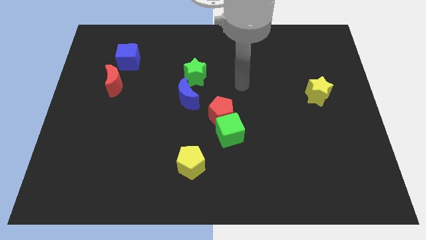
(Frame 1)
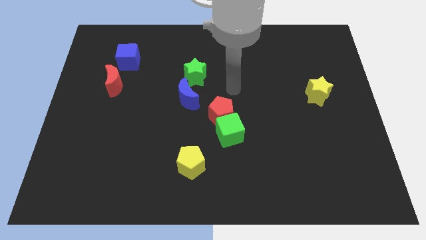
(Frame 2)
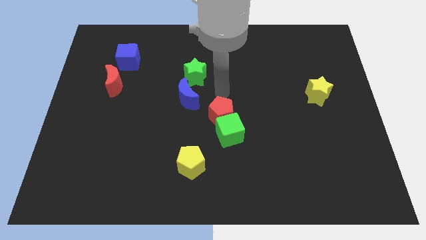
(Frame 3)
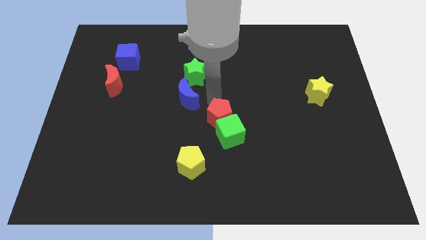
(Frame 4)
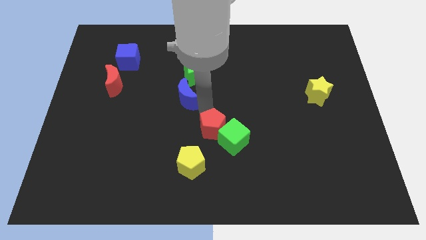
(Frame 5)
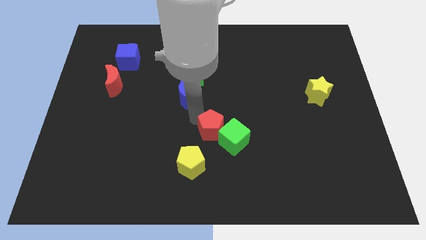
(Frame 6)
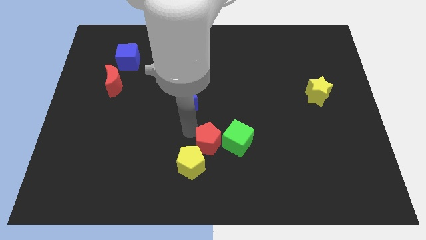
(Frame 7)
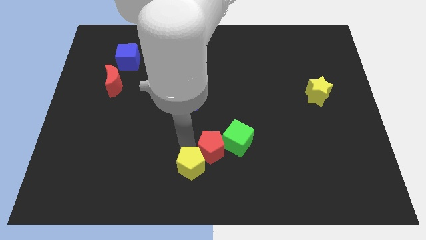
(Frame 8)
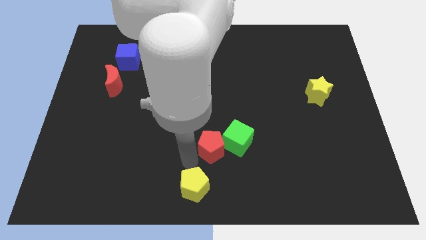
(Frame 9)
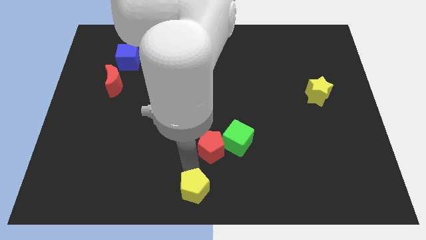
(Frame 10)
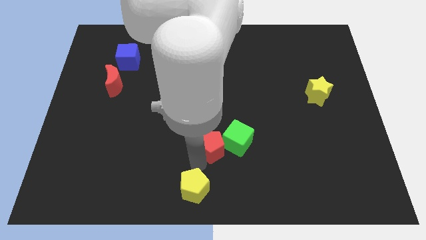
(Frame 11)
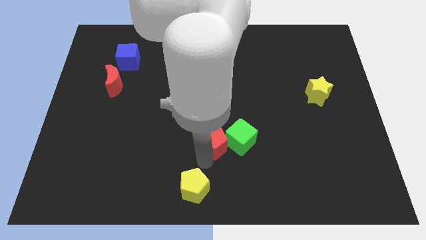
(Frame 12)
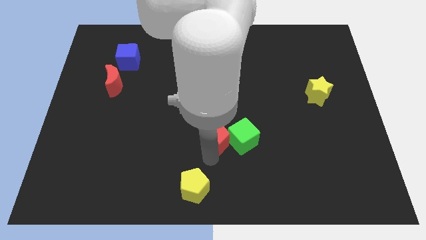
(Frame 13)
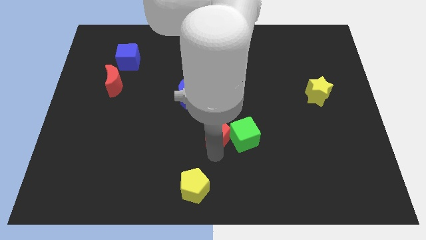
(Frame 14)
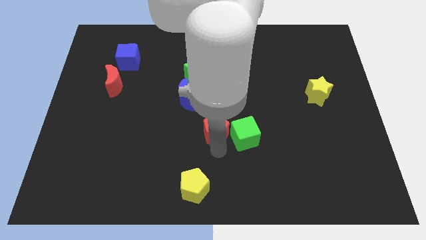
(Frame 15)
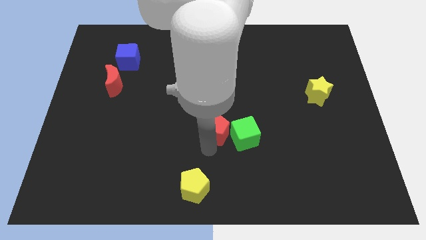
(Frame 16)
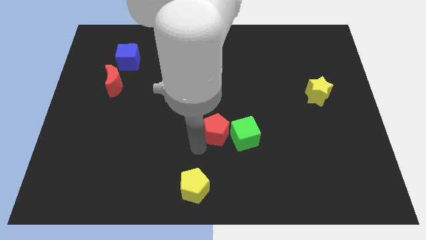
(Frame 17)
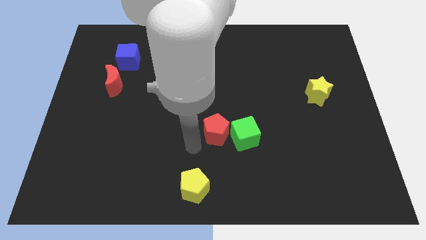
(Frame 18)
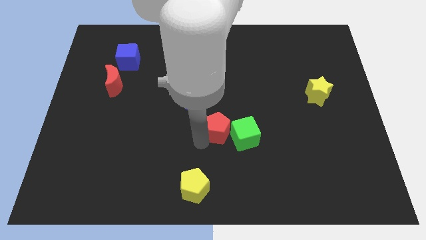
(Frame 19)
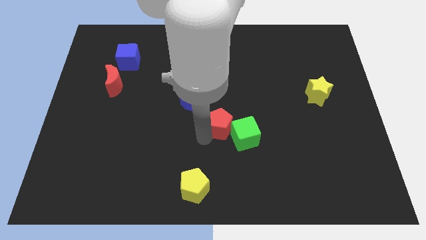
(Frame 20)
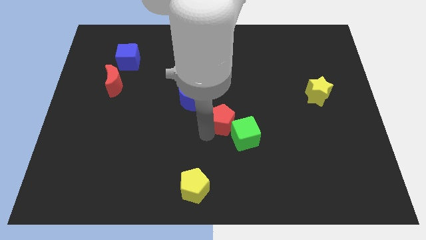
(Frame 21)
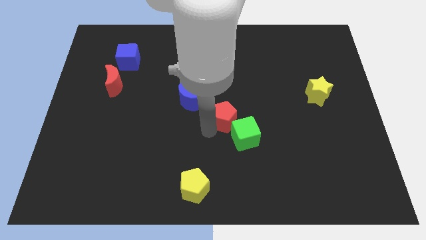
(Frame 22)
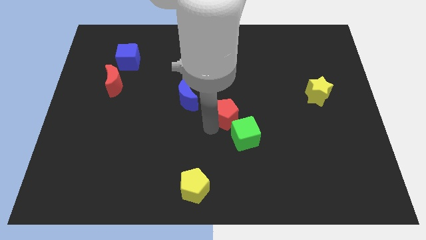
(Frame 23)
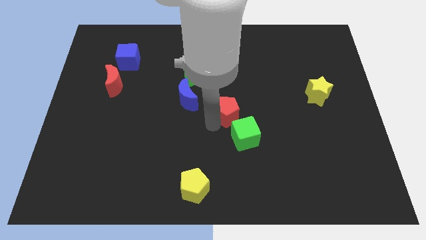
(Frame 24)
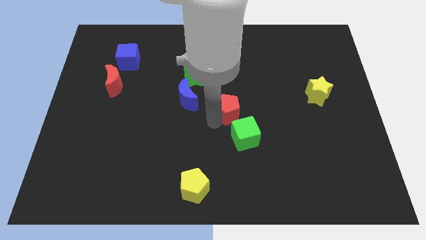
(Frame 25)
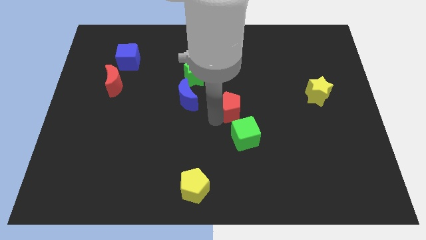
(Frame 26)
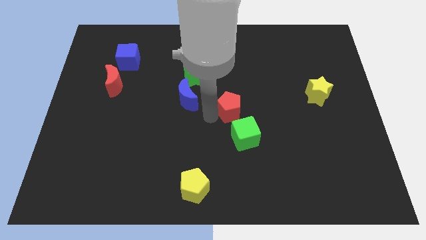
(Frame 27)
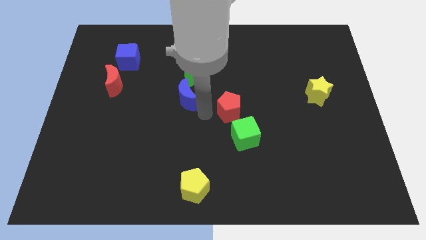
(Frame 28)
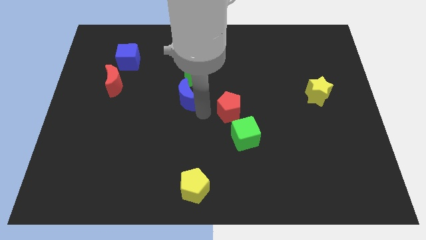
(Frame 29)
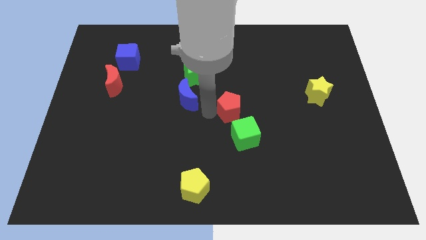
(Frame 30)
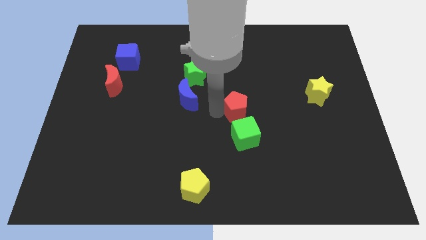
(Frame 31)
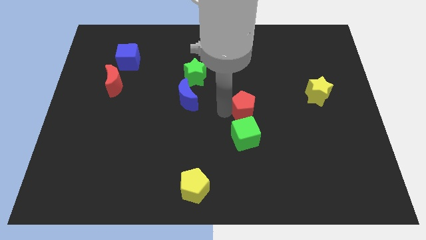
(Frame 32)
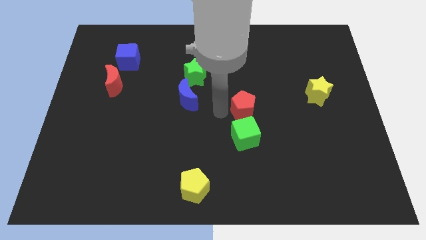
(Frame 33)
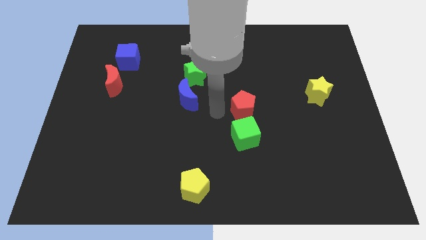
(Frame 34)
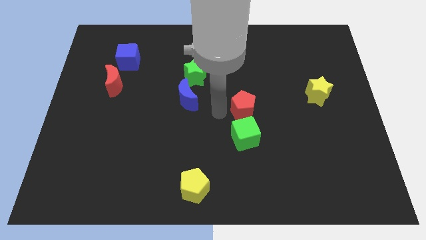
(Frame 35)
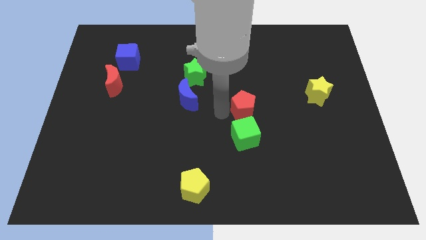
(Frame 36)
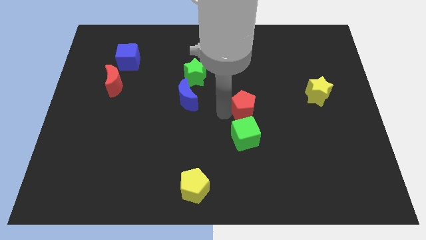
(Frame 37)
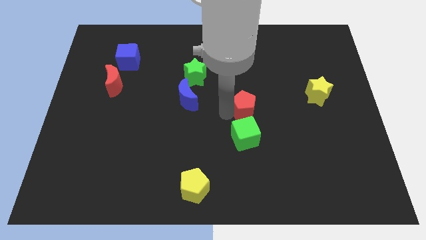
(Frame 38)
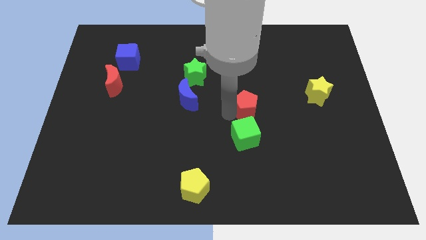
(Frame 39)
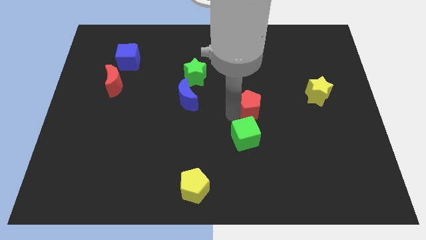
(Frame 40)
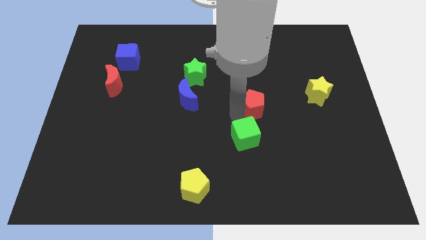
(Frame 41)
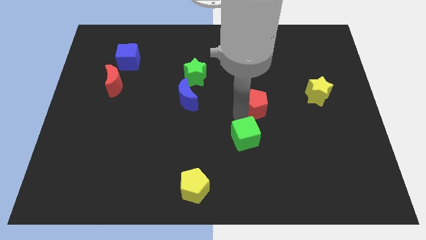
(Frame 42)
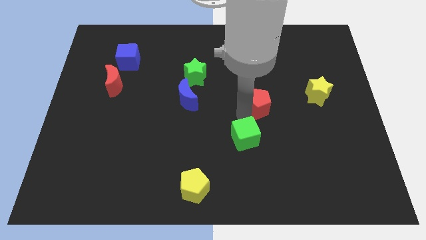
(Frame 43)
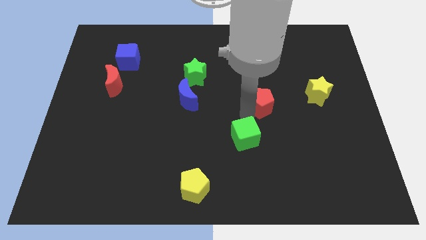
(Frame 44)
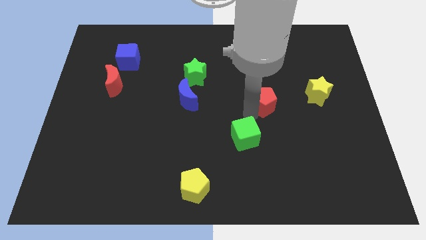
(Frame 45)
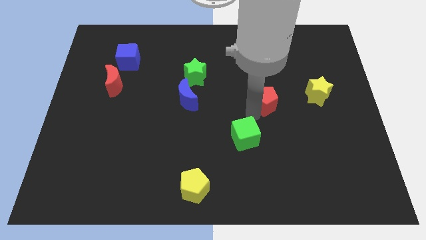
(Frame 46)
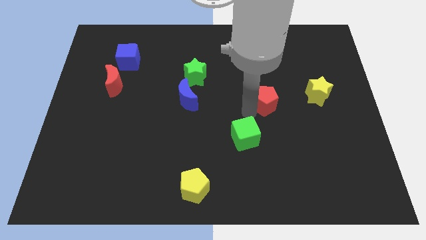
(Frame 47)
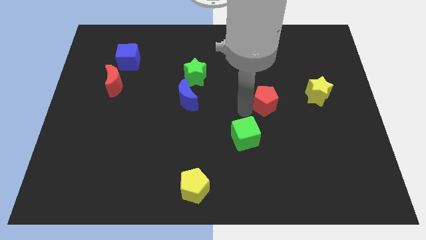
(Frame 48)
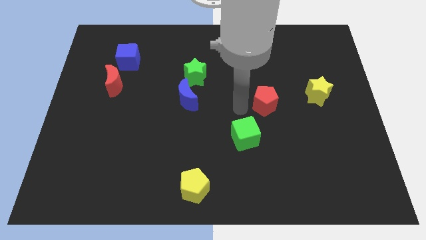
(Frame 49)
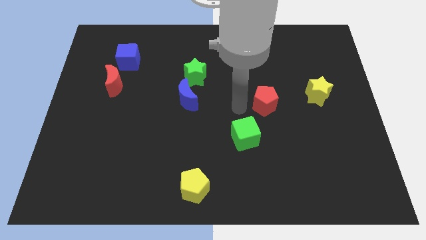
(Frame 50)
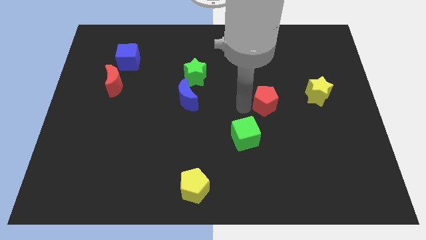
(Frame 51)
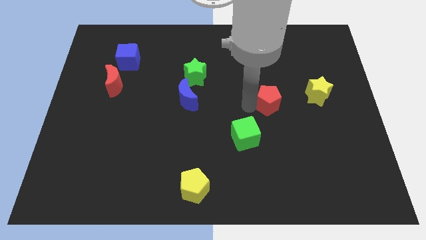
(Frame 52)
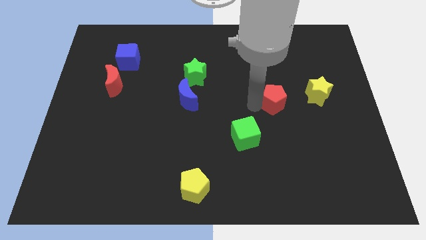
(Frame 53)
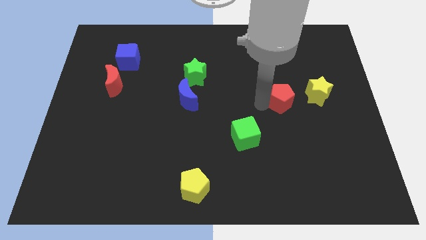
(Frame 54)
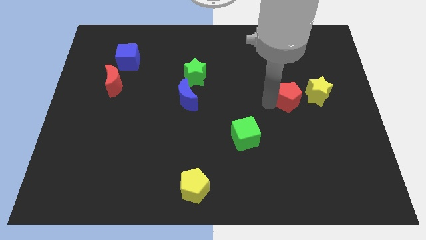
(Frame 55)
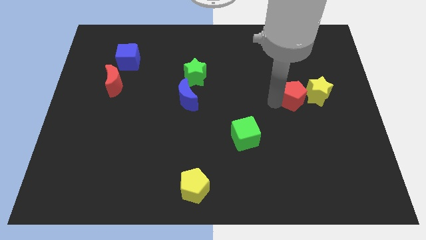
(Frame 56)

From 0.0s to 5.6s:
push the red pentagon close to the yellow star
